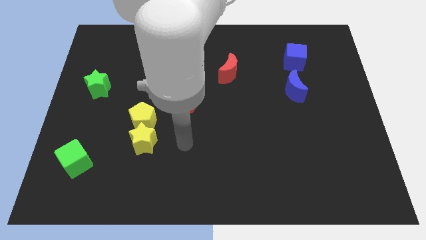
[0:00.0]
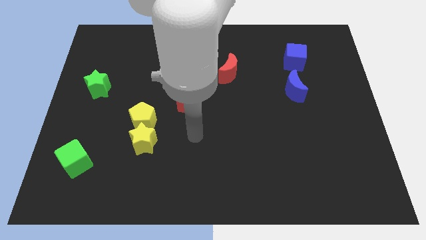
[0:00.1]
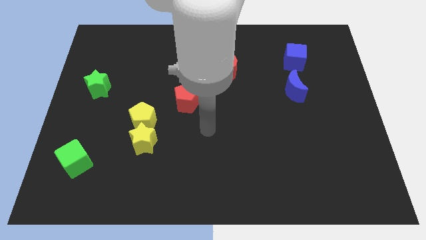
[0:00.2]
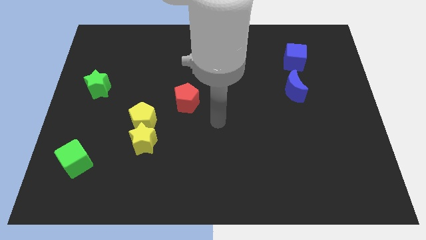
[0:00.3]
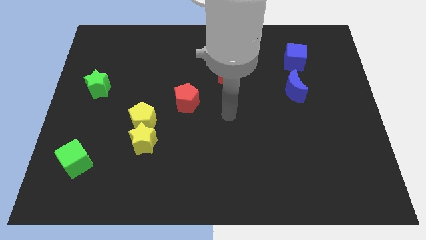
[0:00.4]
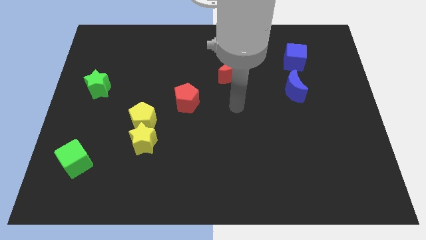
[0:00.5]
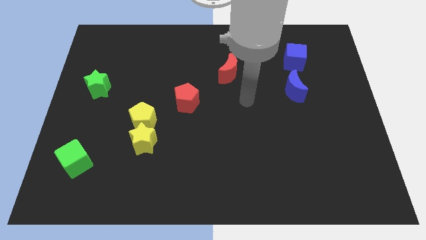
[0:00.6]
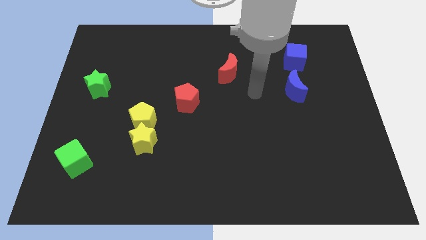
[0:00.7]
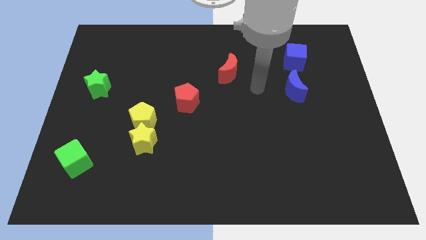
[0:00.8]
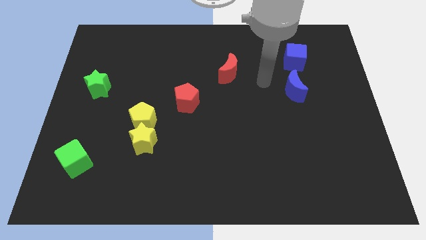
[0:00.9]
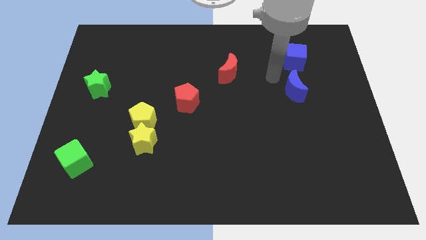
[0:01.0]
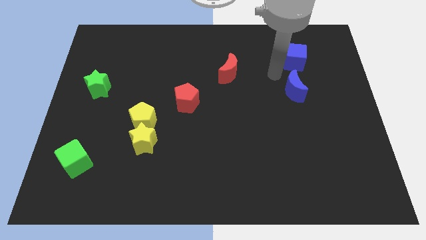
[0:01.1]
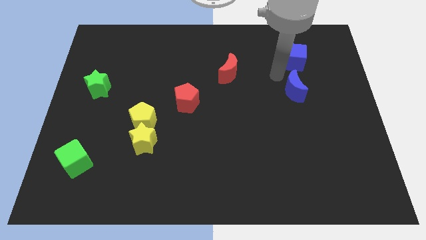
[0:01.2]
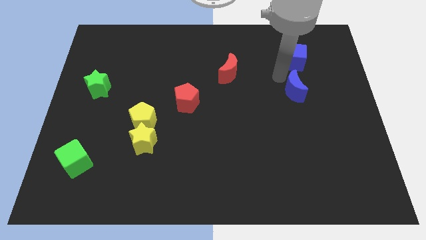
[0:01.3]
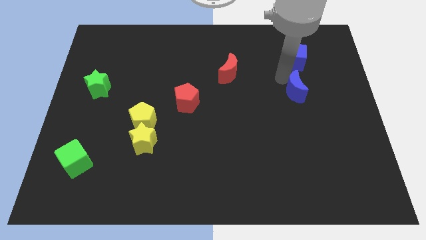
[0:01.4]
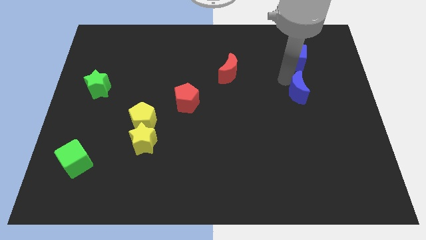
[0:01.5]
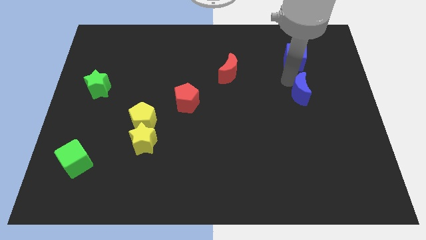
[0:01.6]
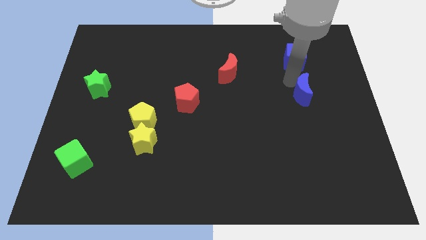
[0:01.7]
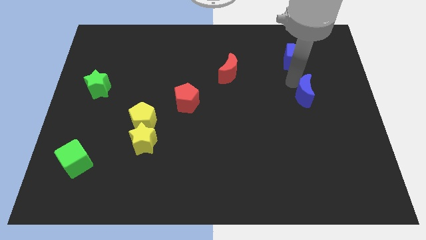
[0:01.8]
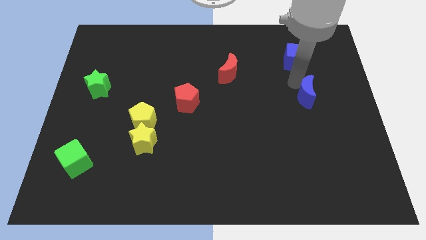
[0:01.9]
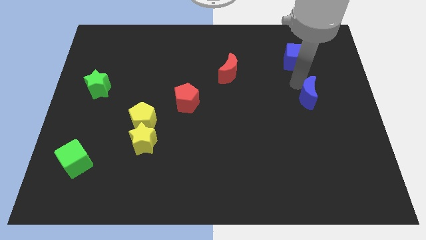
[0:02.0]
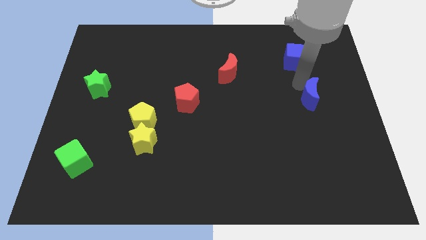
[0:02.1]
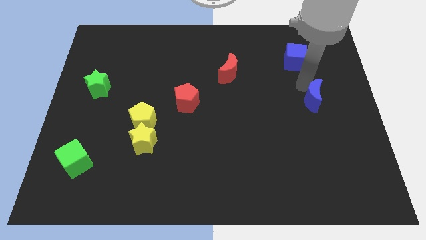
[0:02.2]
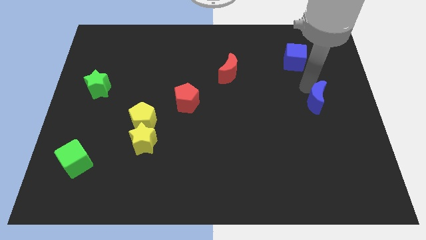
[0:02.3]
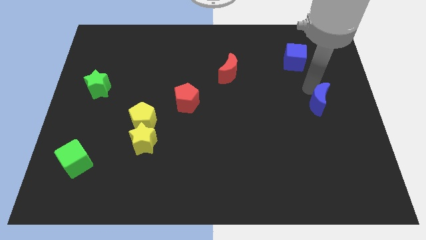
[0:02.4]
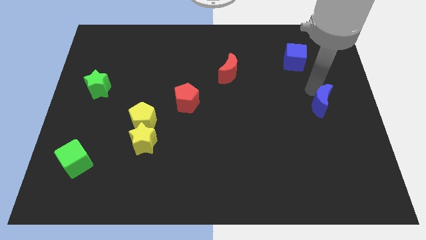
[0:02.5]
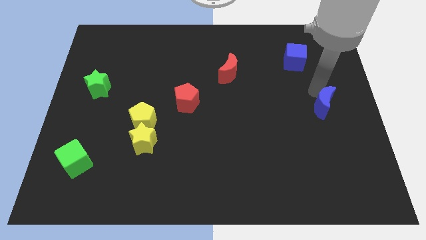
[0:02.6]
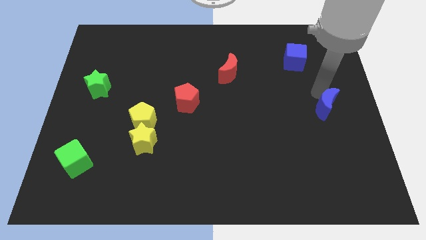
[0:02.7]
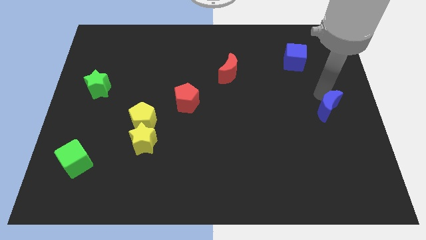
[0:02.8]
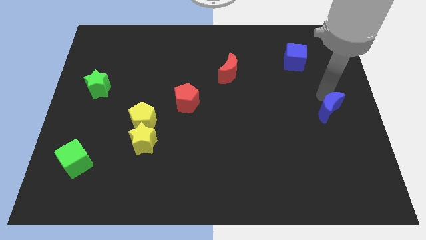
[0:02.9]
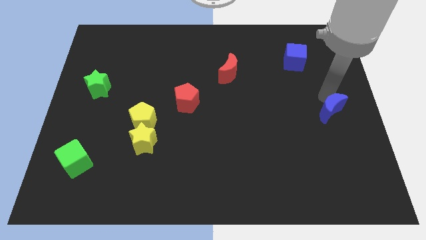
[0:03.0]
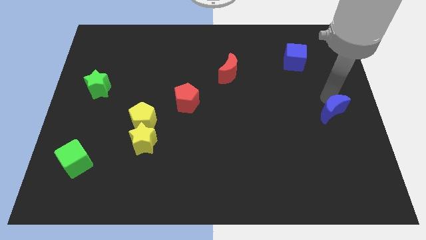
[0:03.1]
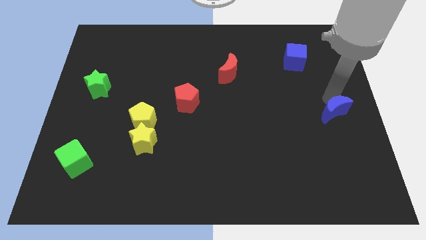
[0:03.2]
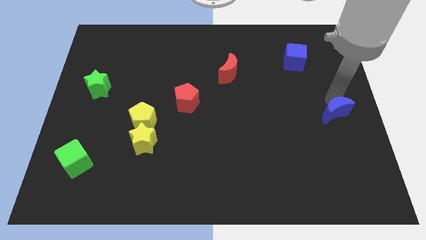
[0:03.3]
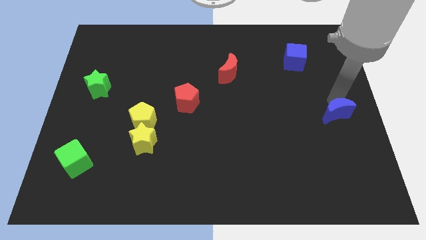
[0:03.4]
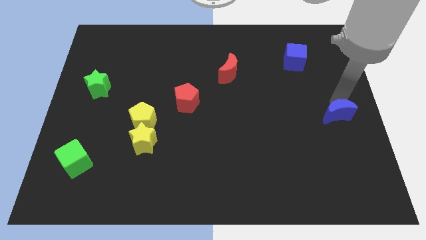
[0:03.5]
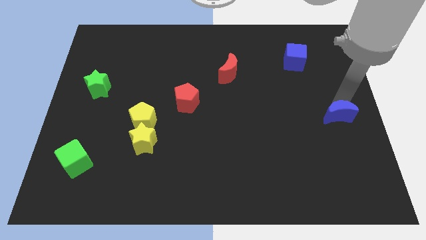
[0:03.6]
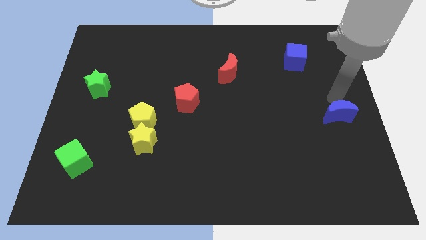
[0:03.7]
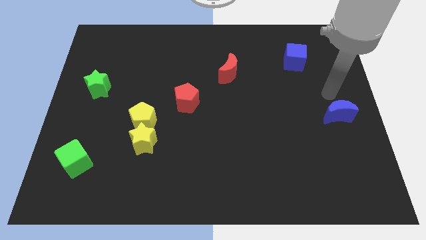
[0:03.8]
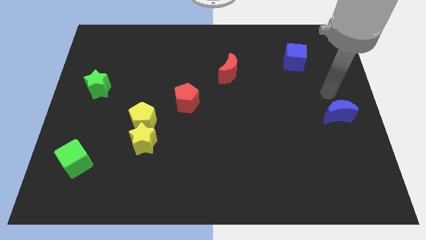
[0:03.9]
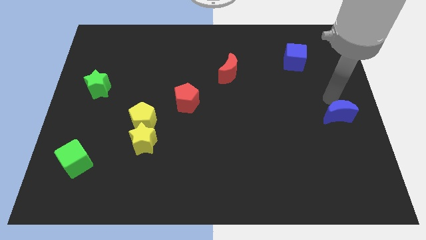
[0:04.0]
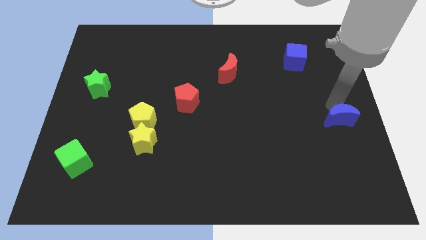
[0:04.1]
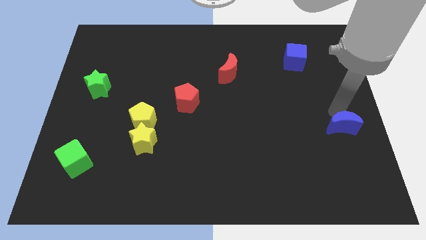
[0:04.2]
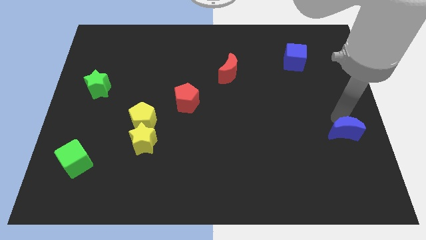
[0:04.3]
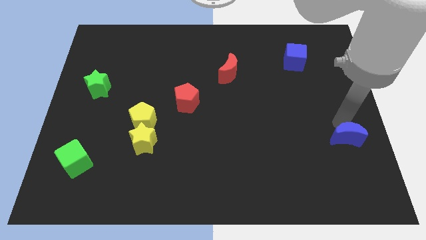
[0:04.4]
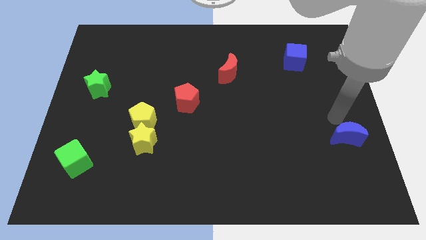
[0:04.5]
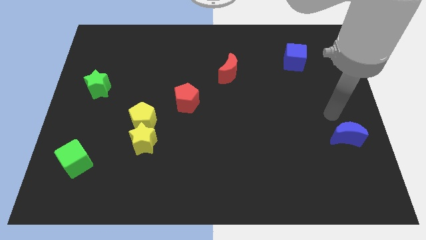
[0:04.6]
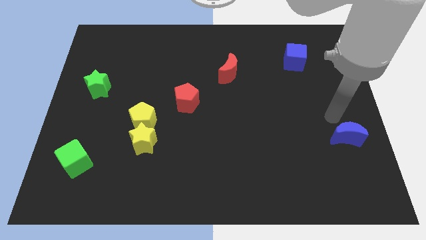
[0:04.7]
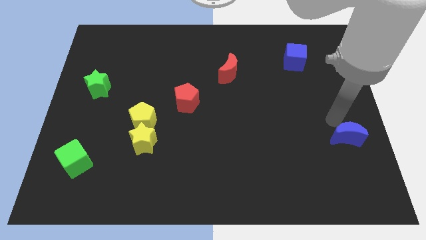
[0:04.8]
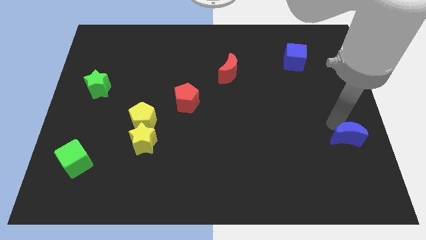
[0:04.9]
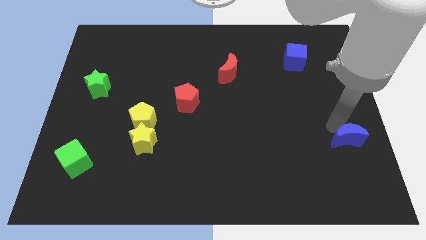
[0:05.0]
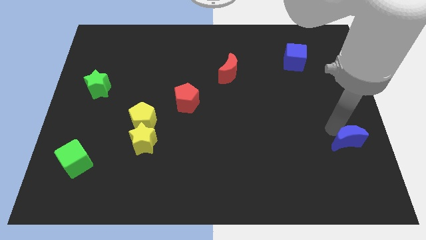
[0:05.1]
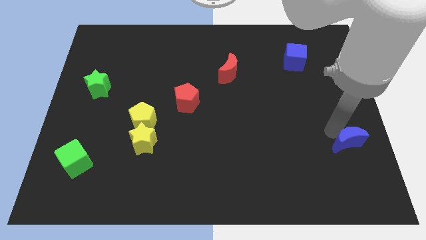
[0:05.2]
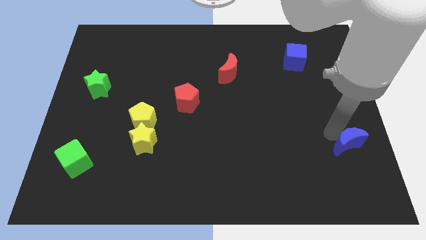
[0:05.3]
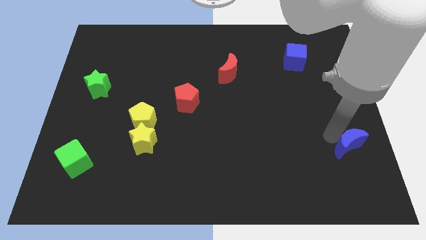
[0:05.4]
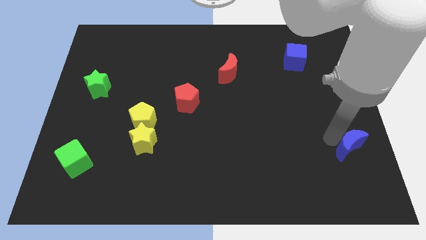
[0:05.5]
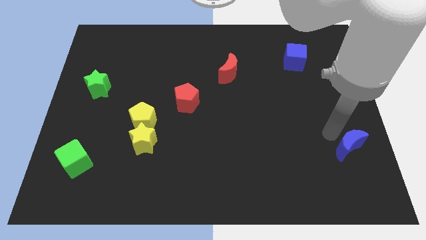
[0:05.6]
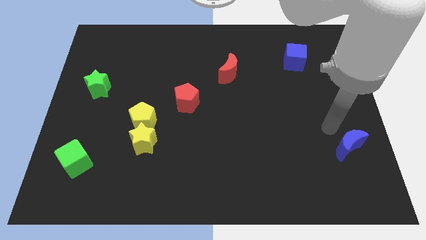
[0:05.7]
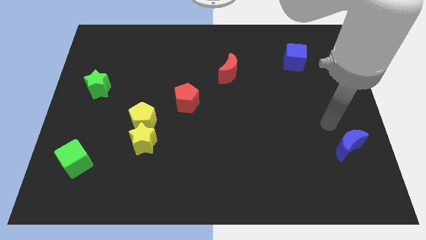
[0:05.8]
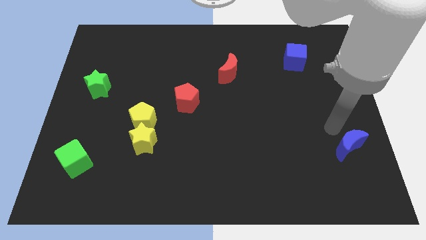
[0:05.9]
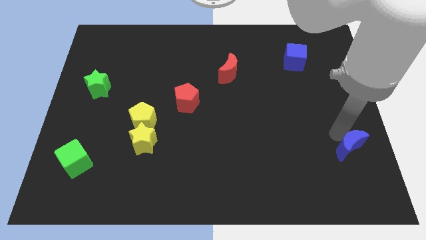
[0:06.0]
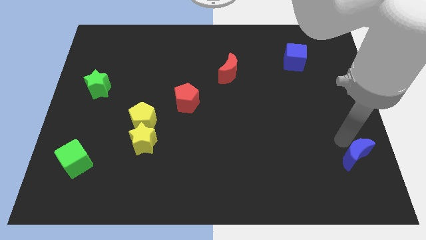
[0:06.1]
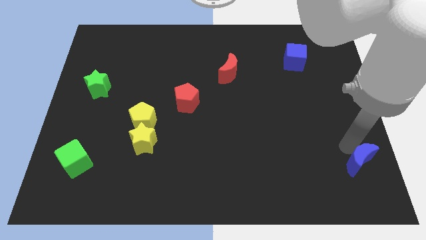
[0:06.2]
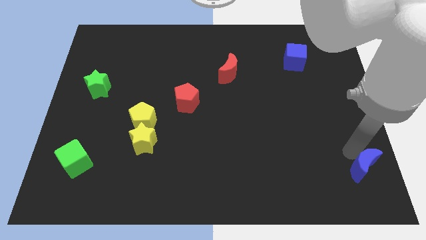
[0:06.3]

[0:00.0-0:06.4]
put the blue moon to the bottom right of the board
